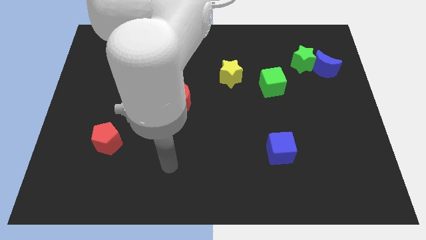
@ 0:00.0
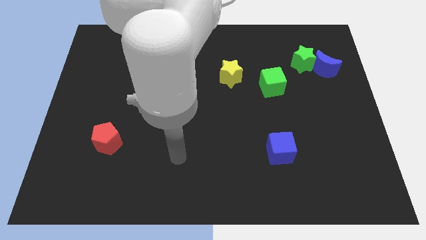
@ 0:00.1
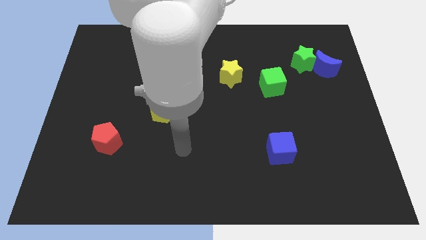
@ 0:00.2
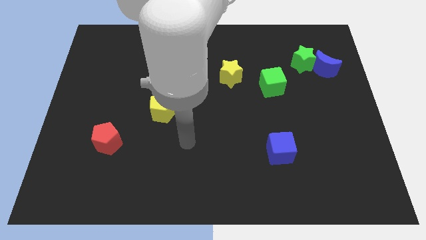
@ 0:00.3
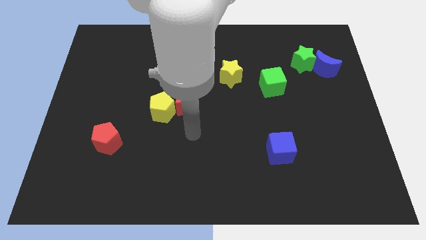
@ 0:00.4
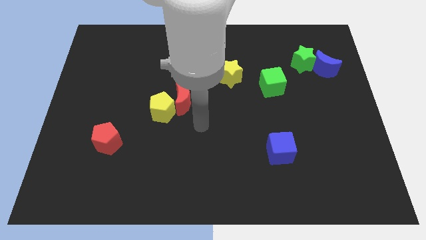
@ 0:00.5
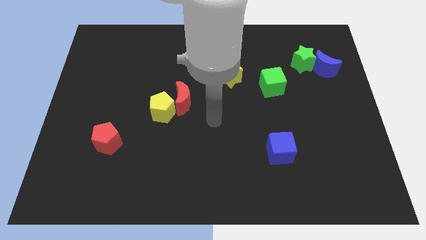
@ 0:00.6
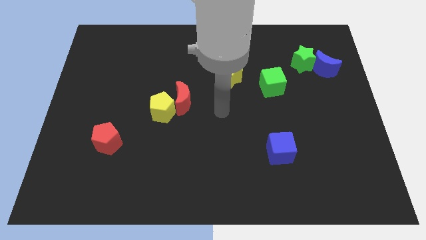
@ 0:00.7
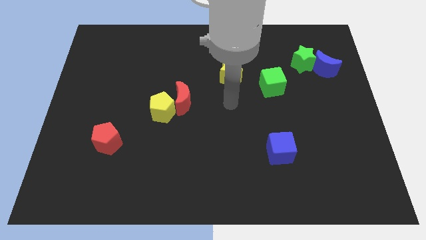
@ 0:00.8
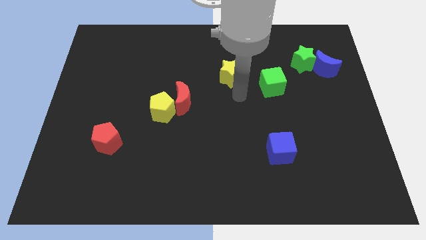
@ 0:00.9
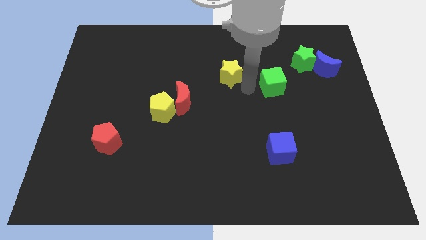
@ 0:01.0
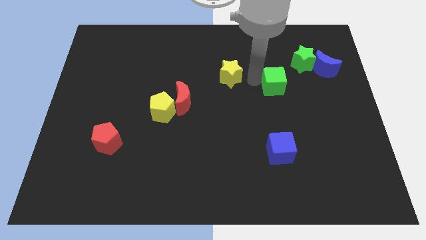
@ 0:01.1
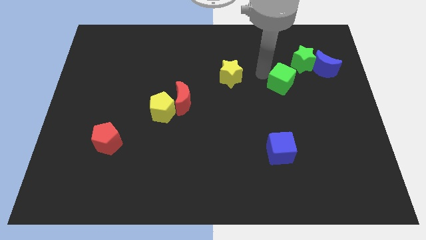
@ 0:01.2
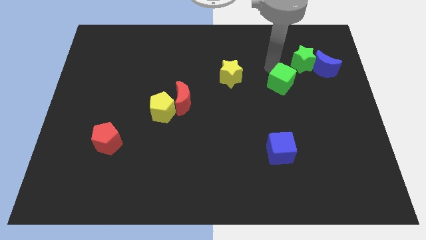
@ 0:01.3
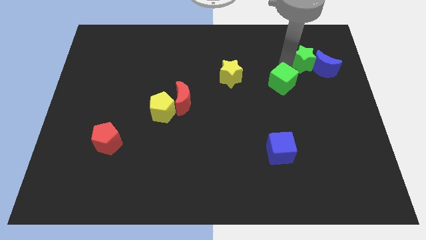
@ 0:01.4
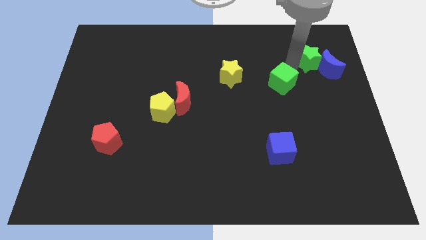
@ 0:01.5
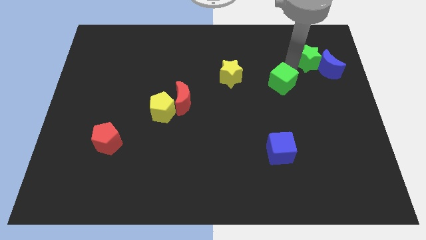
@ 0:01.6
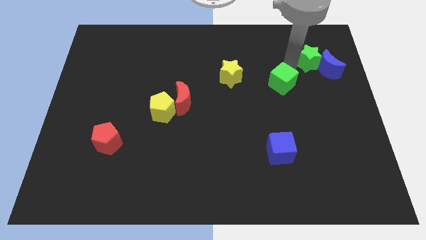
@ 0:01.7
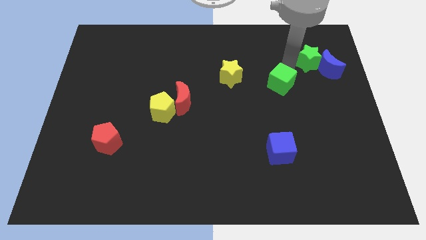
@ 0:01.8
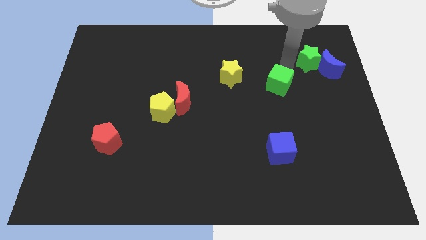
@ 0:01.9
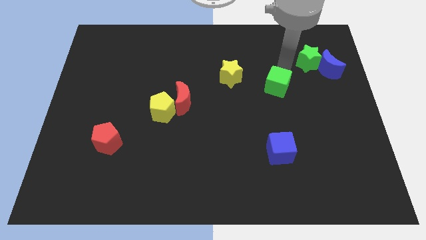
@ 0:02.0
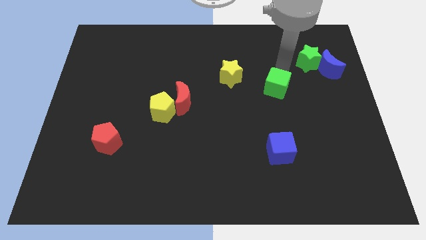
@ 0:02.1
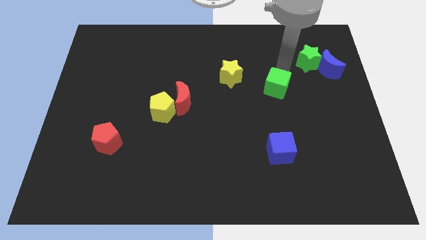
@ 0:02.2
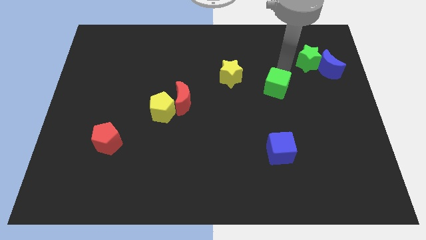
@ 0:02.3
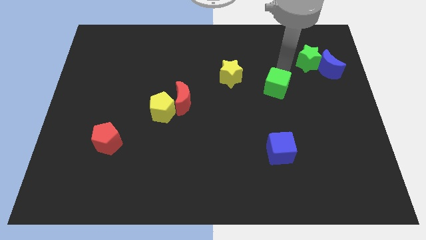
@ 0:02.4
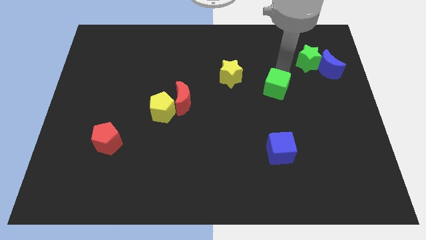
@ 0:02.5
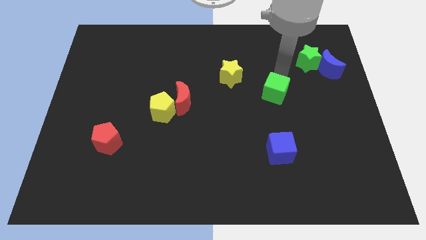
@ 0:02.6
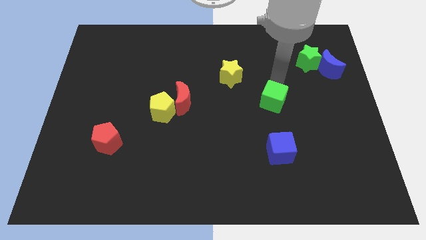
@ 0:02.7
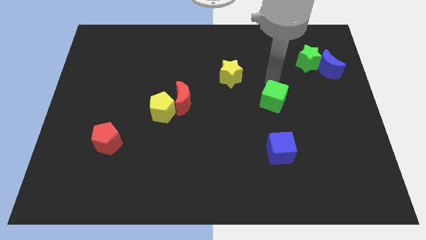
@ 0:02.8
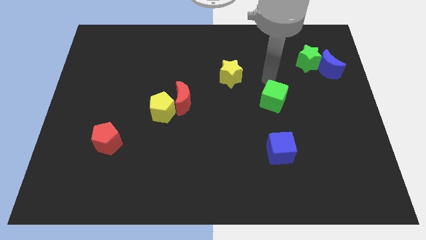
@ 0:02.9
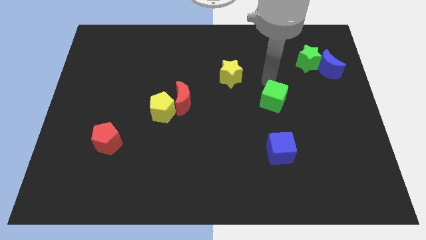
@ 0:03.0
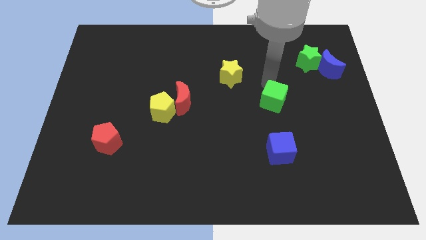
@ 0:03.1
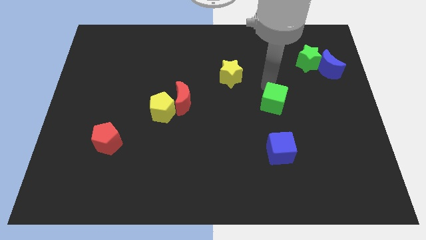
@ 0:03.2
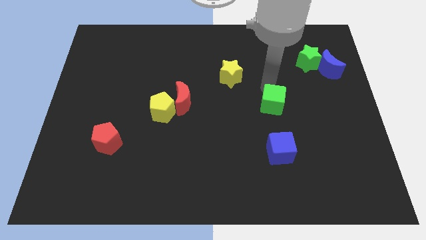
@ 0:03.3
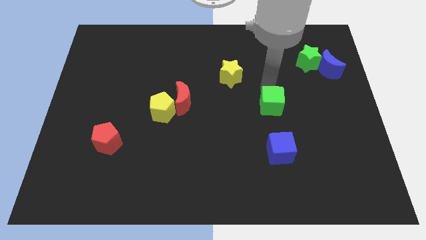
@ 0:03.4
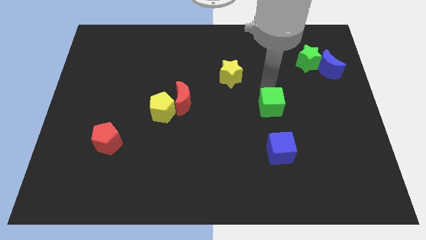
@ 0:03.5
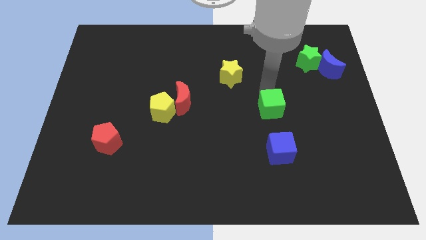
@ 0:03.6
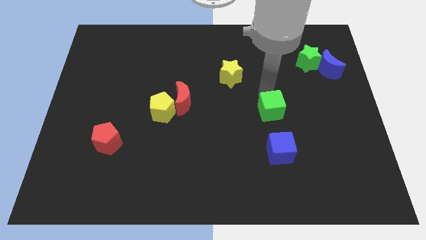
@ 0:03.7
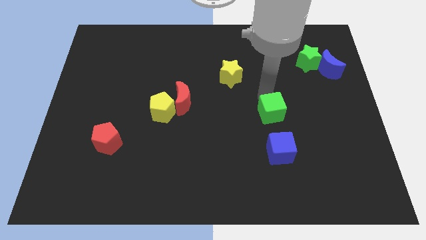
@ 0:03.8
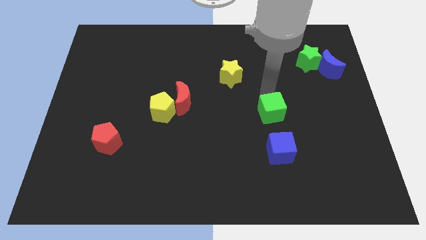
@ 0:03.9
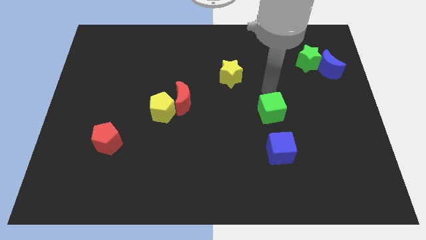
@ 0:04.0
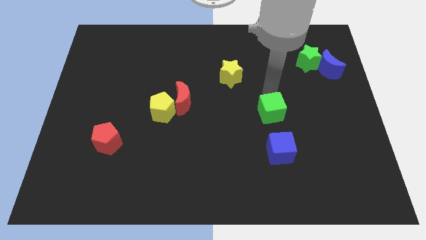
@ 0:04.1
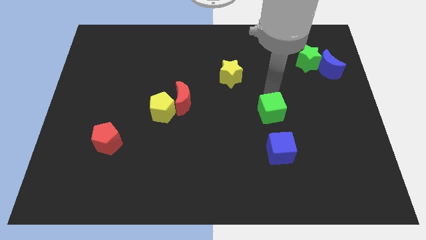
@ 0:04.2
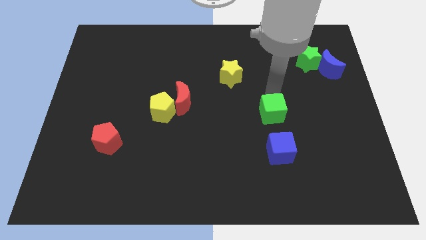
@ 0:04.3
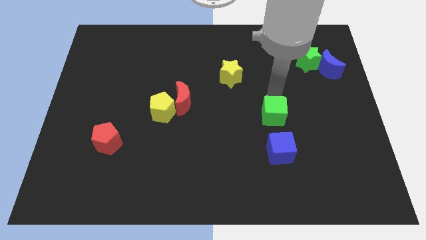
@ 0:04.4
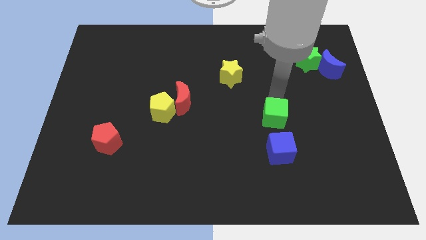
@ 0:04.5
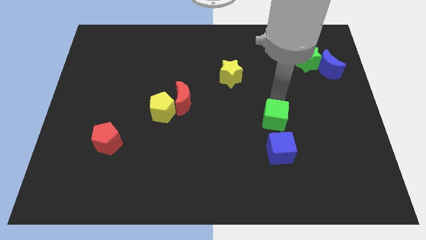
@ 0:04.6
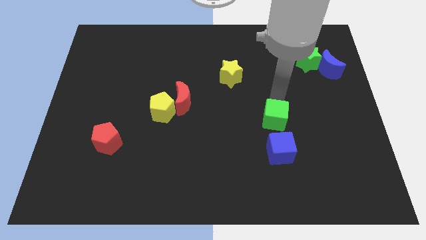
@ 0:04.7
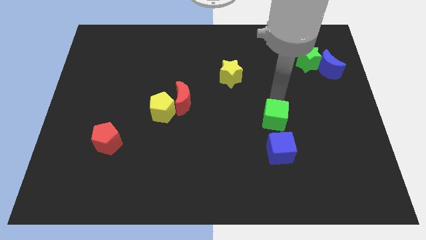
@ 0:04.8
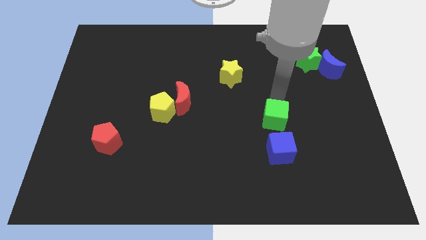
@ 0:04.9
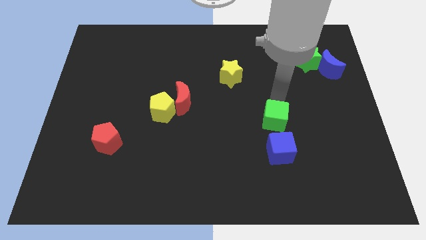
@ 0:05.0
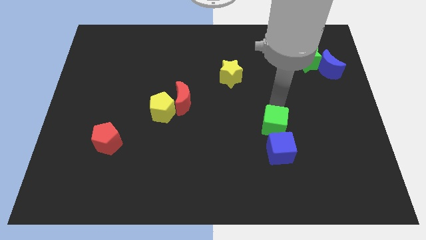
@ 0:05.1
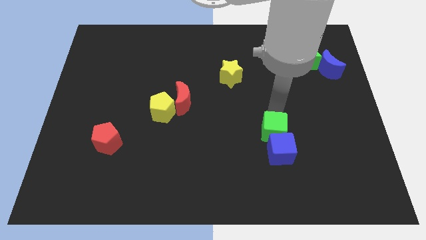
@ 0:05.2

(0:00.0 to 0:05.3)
slide the green cube close to the blue cube

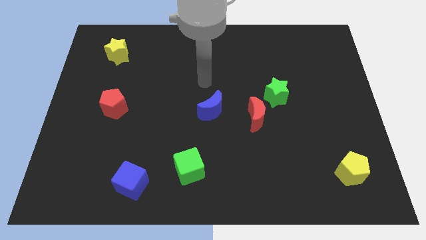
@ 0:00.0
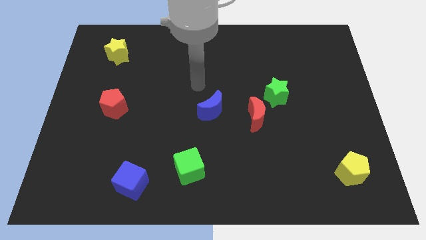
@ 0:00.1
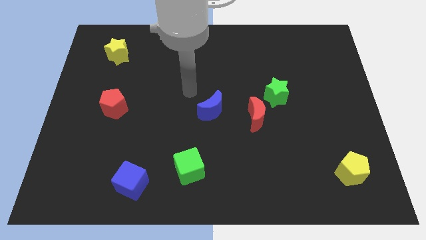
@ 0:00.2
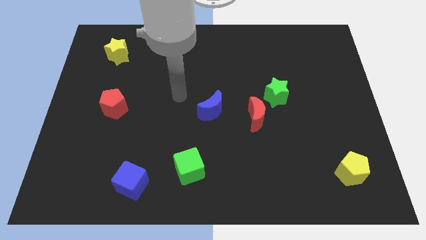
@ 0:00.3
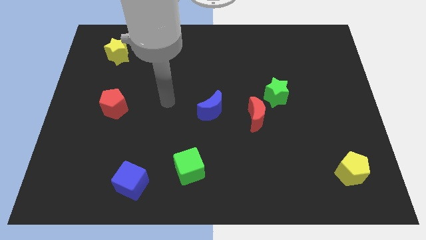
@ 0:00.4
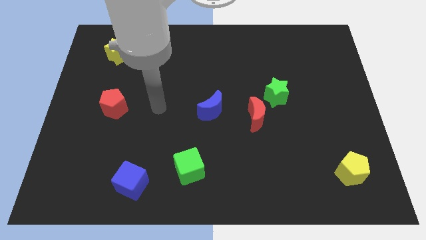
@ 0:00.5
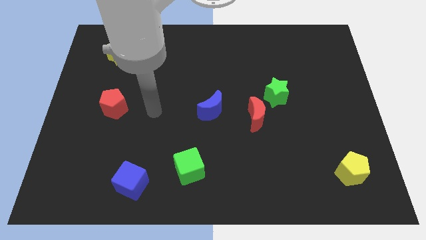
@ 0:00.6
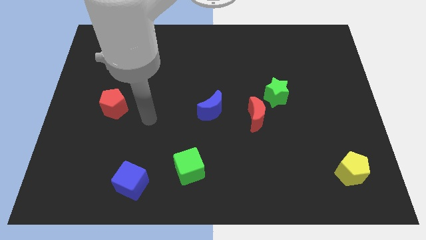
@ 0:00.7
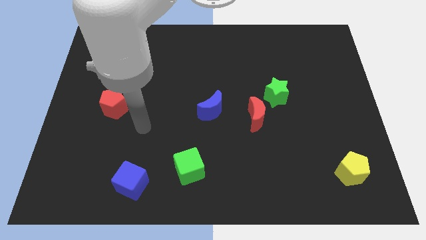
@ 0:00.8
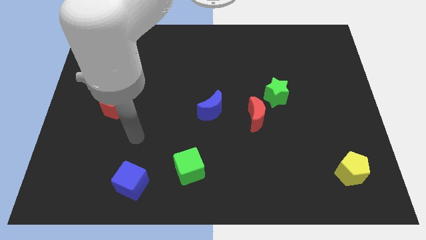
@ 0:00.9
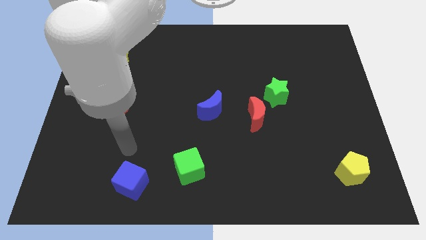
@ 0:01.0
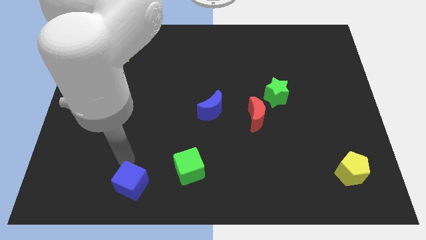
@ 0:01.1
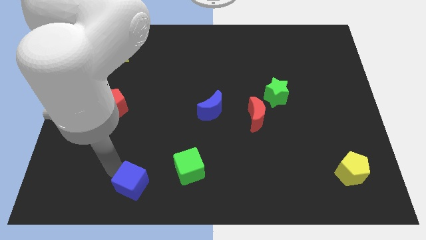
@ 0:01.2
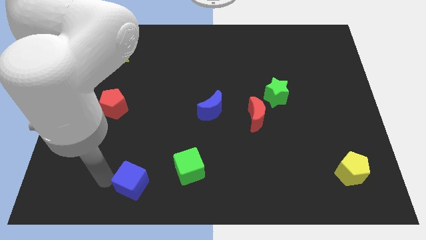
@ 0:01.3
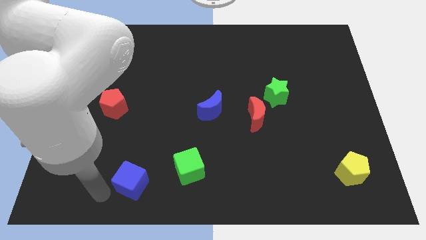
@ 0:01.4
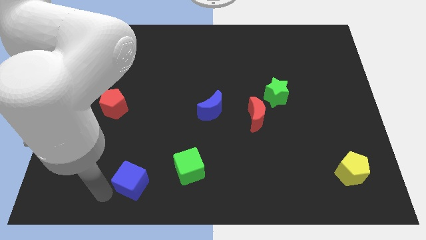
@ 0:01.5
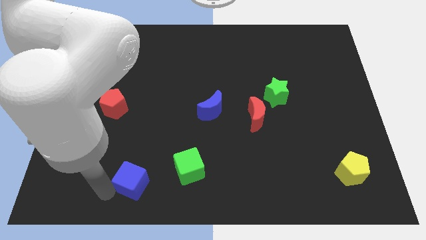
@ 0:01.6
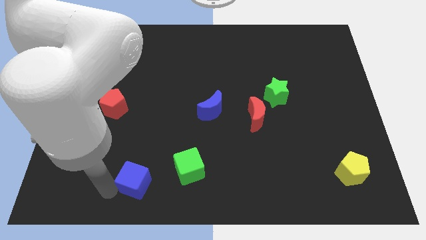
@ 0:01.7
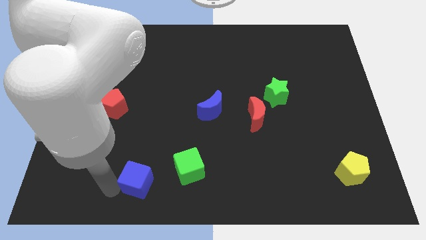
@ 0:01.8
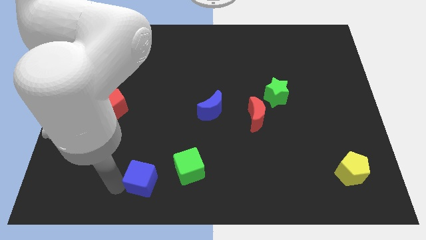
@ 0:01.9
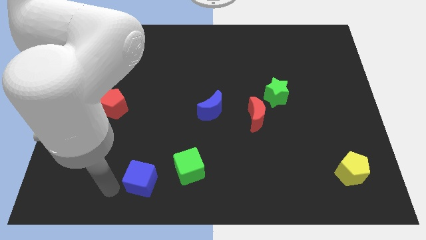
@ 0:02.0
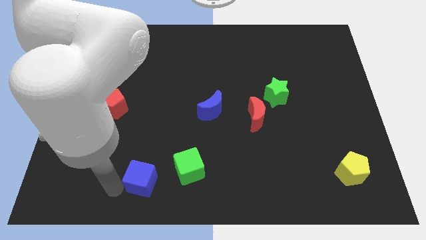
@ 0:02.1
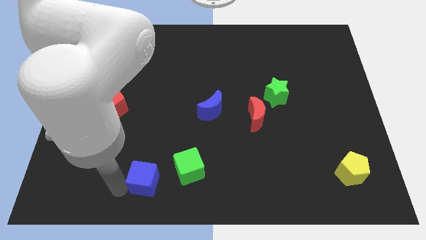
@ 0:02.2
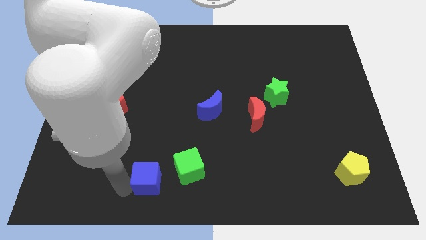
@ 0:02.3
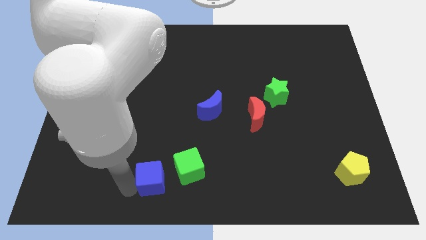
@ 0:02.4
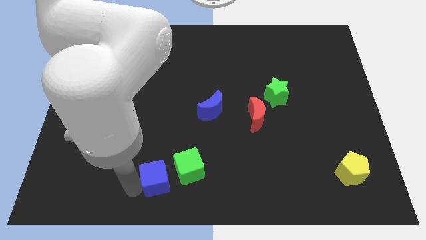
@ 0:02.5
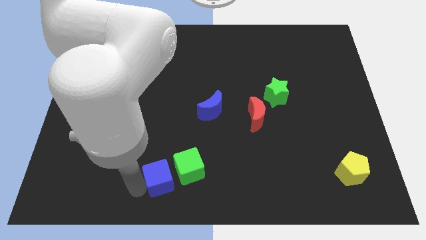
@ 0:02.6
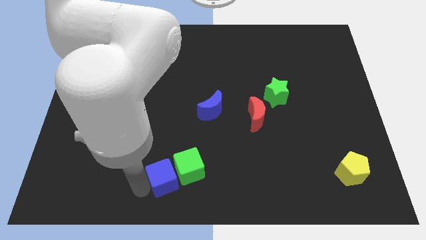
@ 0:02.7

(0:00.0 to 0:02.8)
put the blue cube towards the green cube
